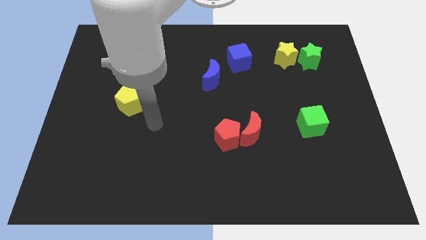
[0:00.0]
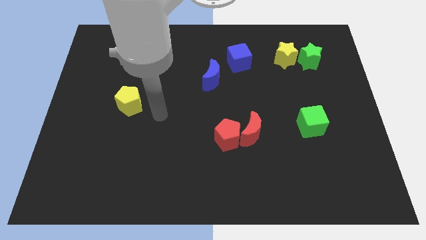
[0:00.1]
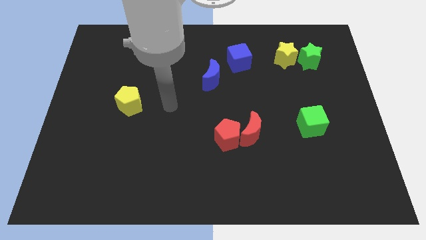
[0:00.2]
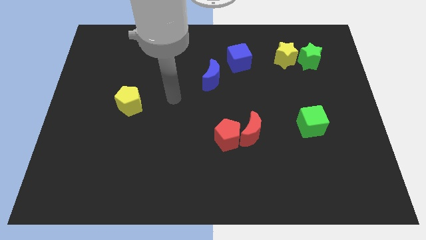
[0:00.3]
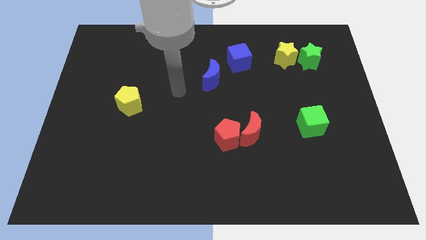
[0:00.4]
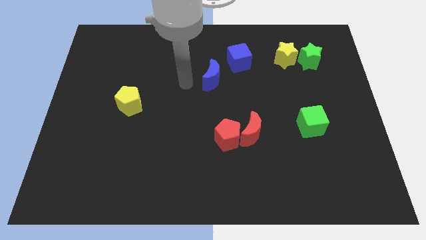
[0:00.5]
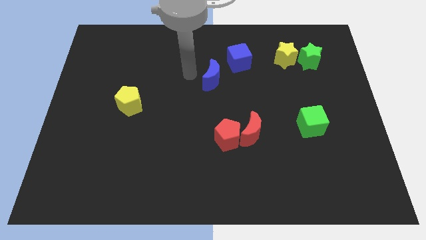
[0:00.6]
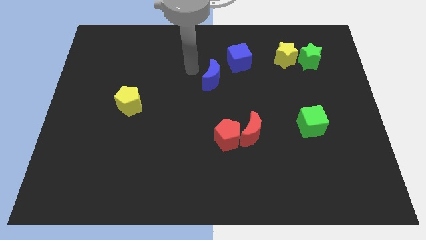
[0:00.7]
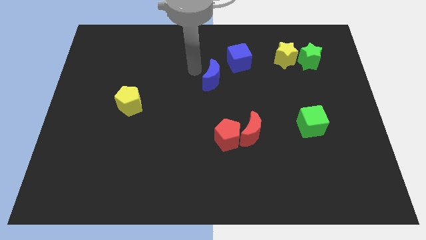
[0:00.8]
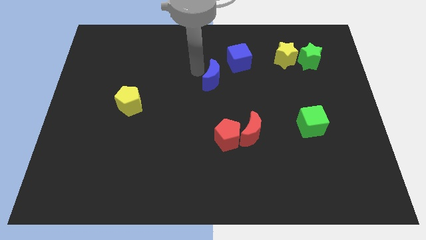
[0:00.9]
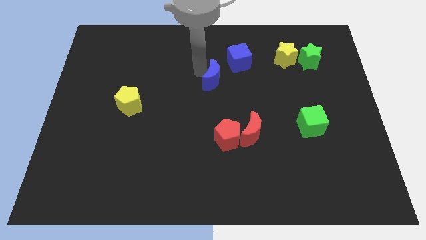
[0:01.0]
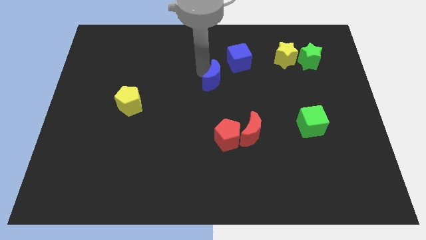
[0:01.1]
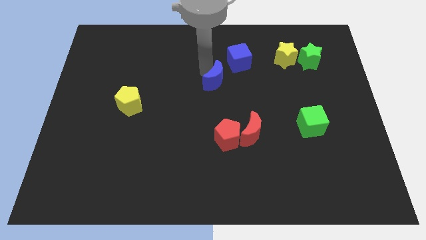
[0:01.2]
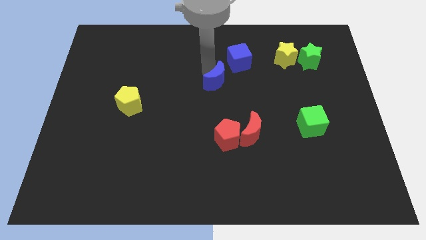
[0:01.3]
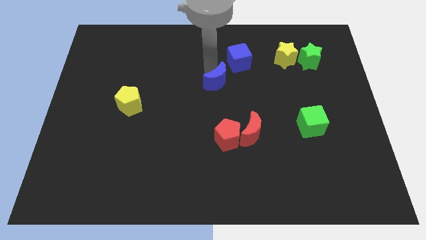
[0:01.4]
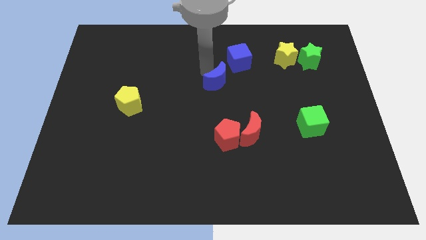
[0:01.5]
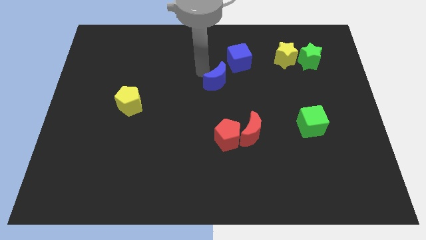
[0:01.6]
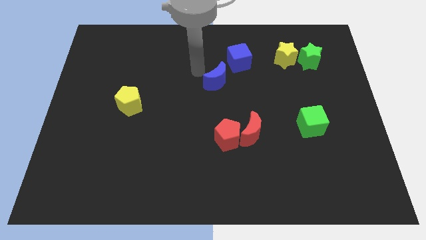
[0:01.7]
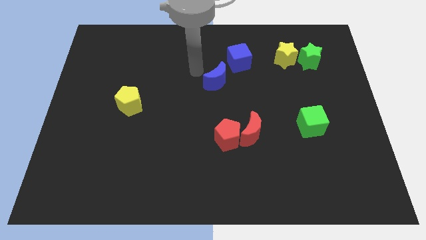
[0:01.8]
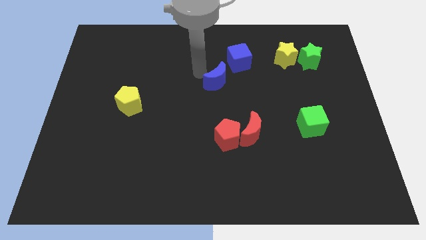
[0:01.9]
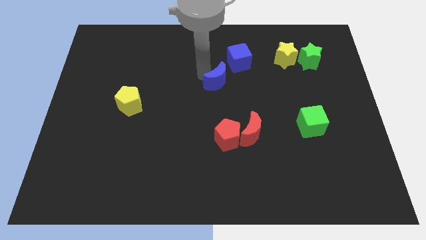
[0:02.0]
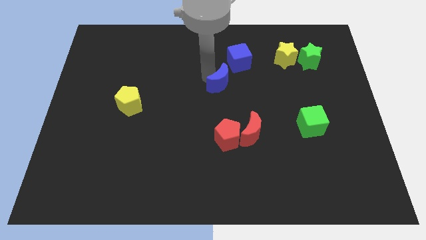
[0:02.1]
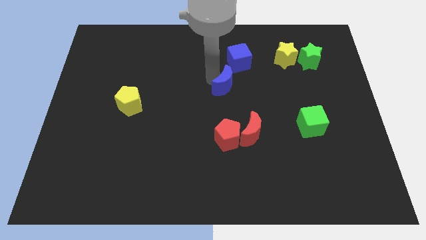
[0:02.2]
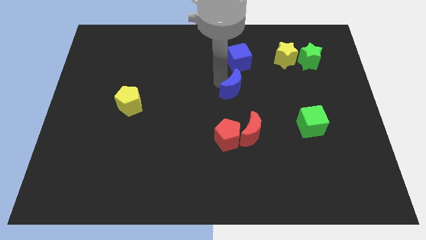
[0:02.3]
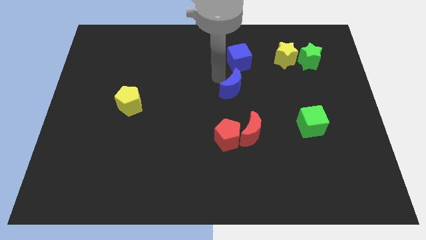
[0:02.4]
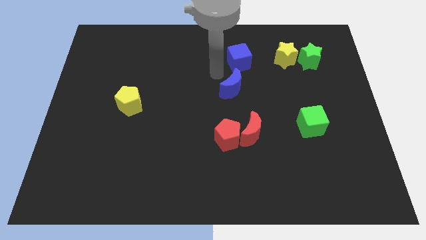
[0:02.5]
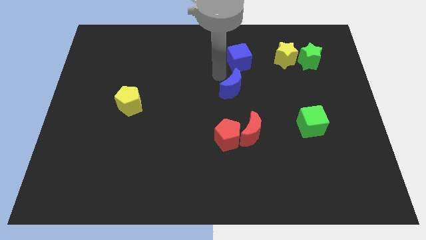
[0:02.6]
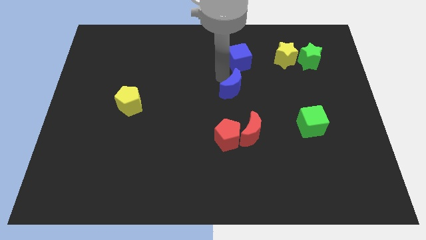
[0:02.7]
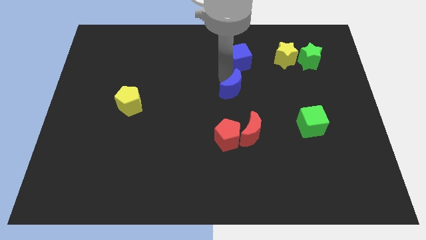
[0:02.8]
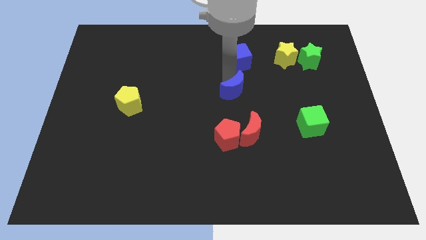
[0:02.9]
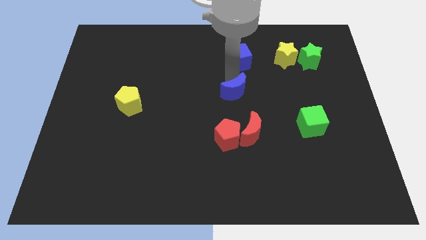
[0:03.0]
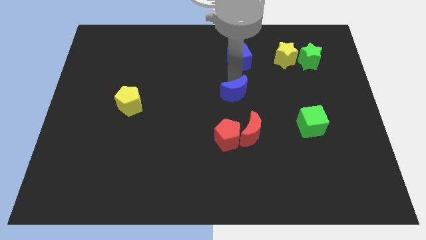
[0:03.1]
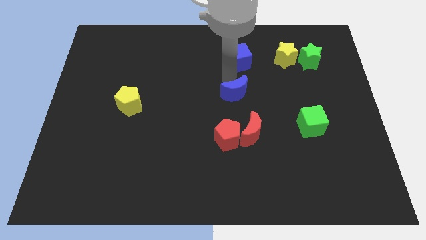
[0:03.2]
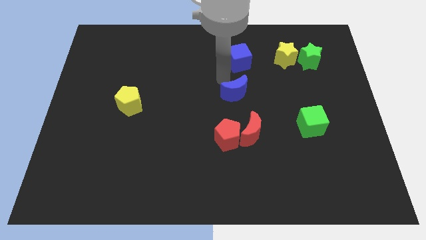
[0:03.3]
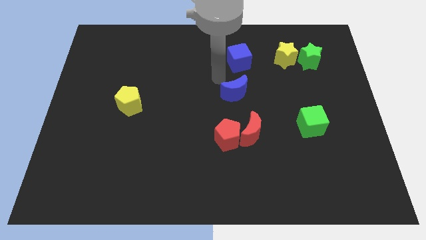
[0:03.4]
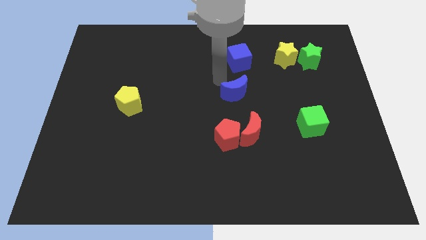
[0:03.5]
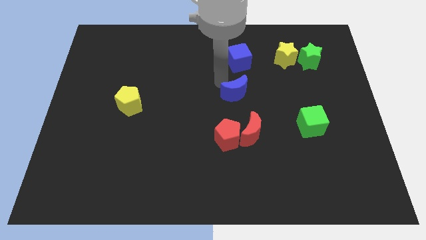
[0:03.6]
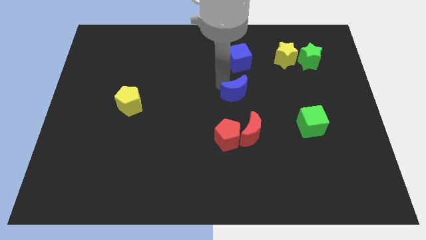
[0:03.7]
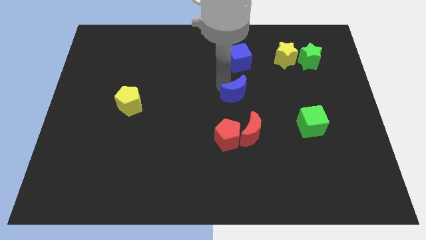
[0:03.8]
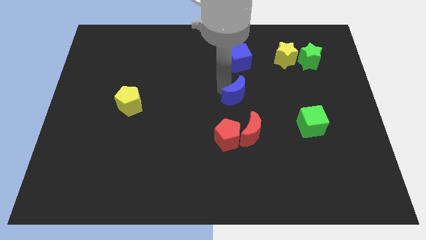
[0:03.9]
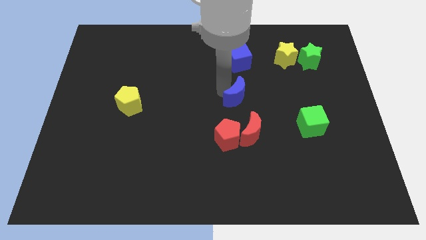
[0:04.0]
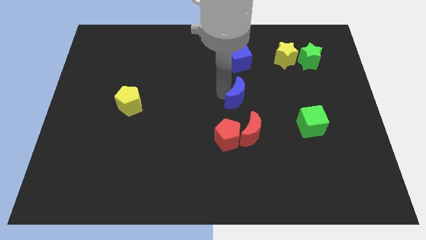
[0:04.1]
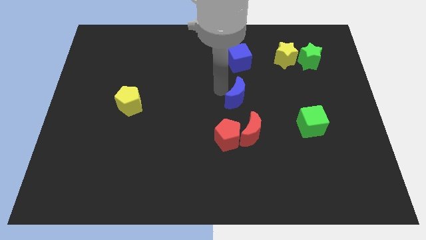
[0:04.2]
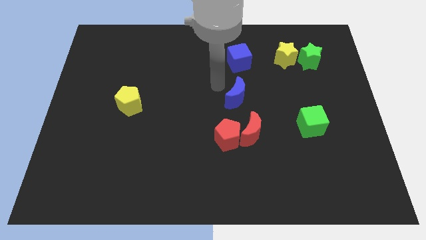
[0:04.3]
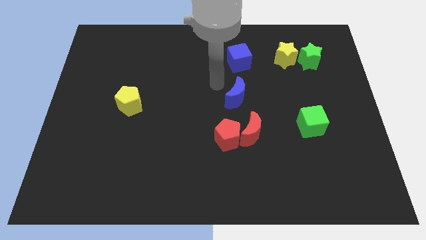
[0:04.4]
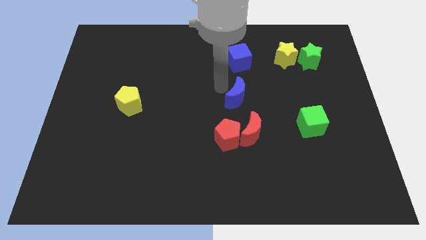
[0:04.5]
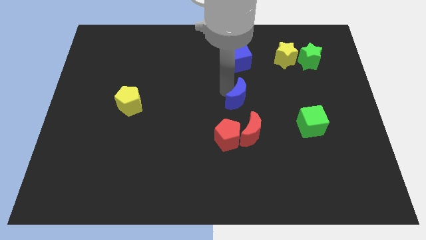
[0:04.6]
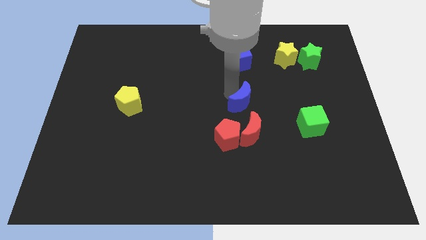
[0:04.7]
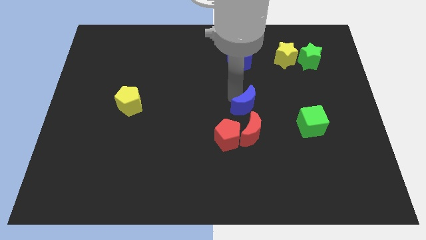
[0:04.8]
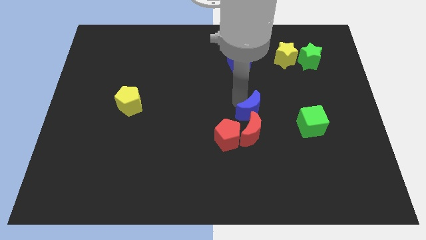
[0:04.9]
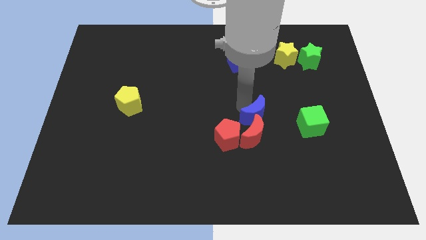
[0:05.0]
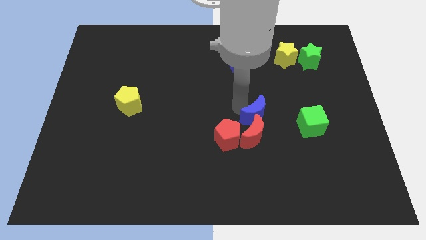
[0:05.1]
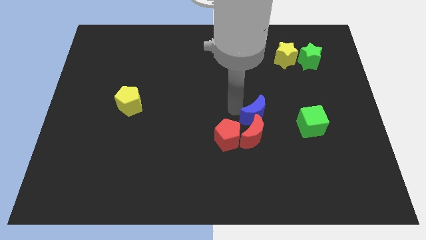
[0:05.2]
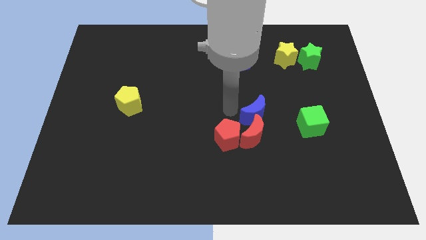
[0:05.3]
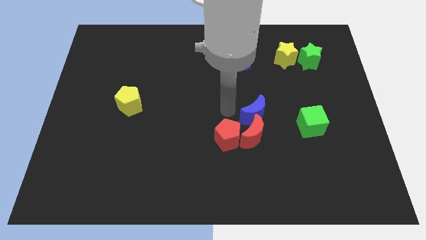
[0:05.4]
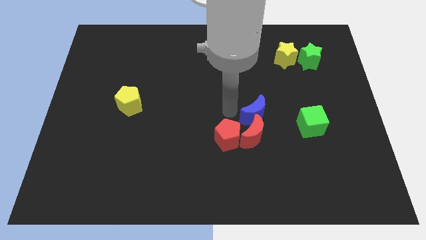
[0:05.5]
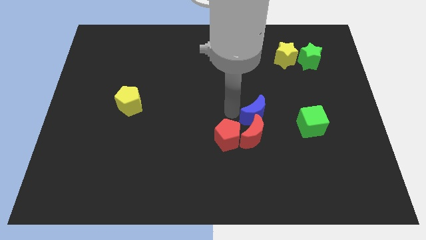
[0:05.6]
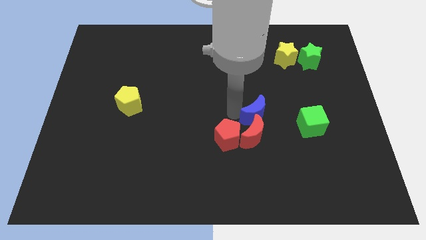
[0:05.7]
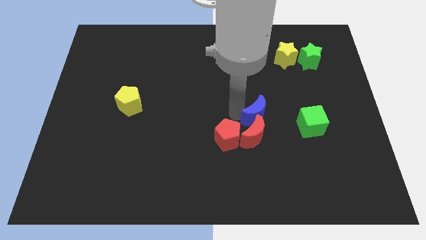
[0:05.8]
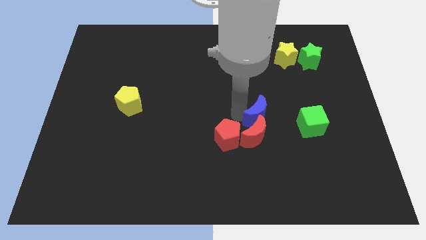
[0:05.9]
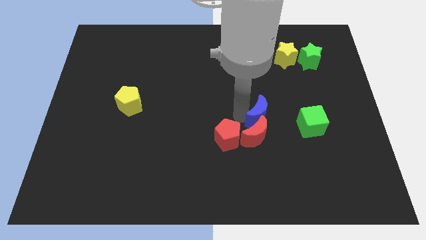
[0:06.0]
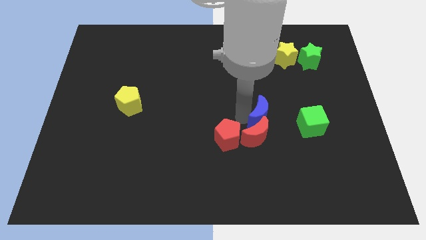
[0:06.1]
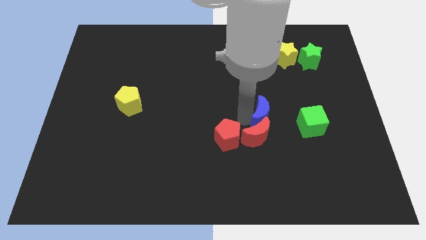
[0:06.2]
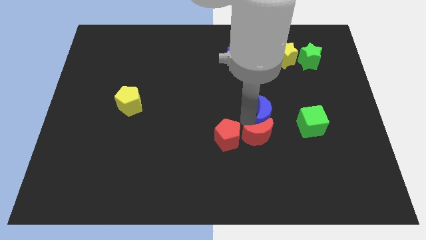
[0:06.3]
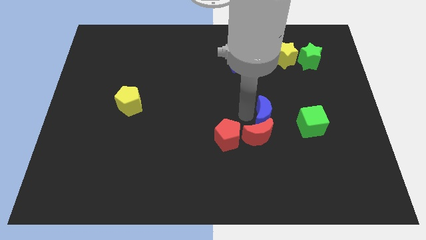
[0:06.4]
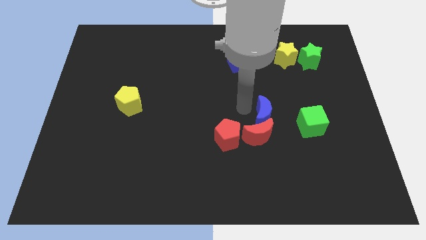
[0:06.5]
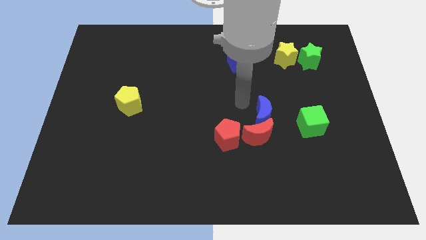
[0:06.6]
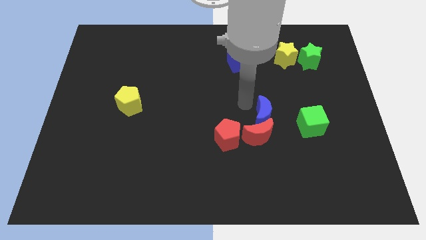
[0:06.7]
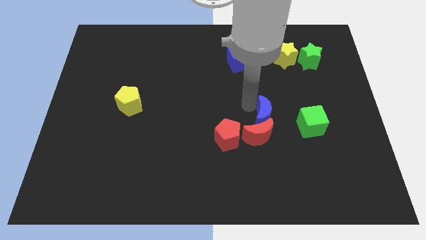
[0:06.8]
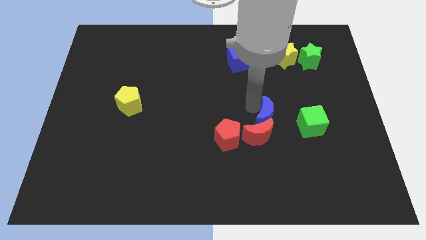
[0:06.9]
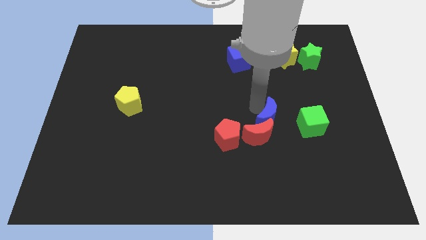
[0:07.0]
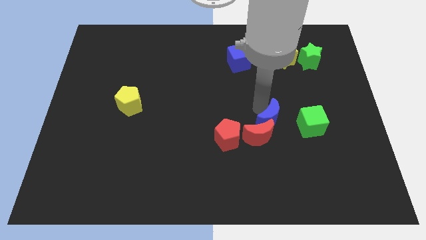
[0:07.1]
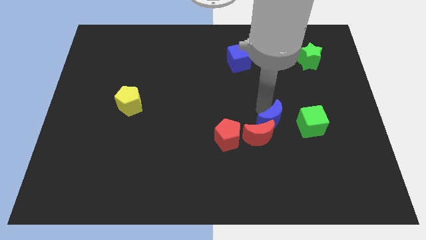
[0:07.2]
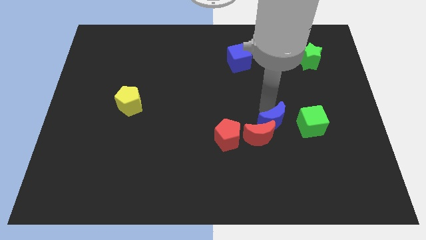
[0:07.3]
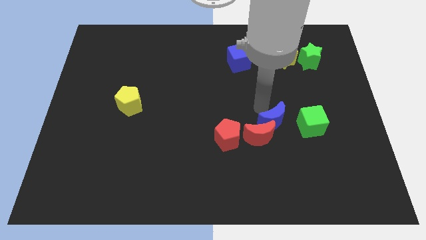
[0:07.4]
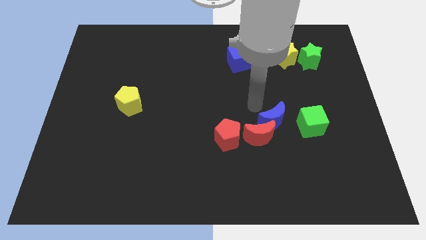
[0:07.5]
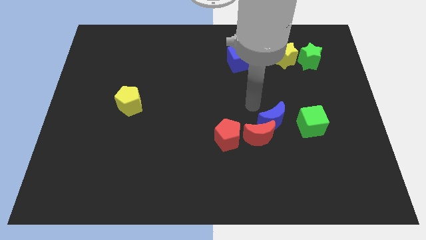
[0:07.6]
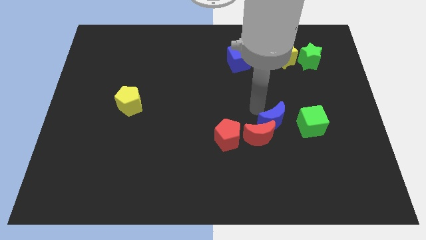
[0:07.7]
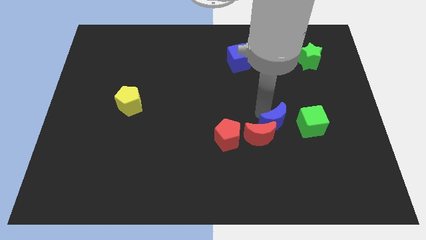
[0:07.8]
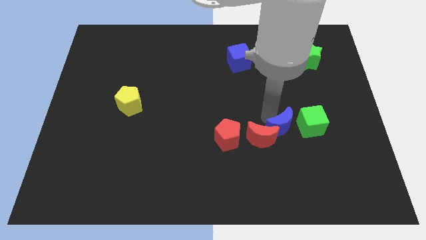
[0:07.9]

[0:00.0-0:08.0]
move the blue moon down and right
